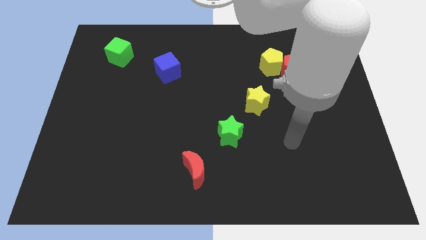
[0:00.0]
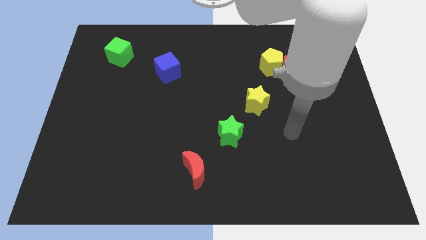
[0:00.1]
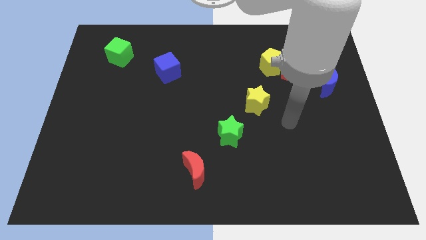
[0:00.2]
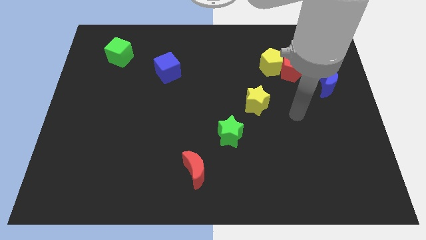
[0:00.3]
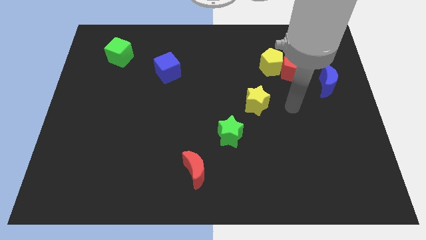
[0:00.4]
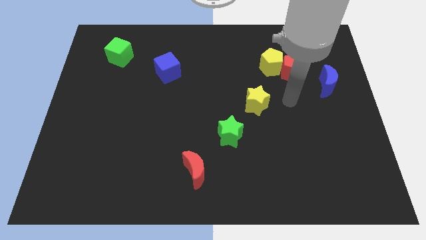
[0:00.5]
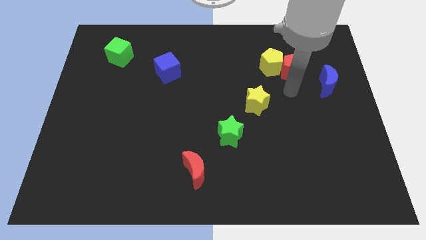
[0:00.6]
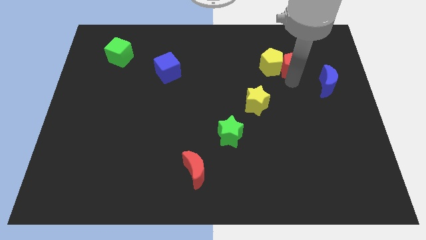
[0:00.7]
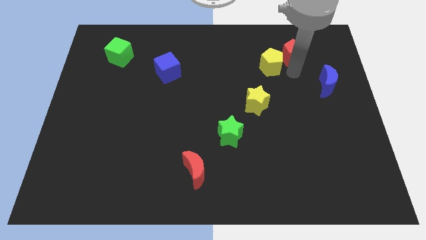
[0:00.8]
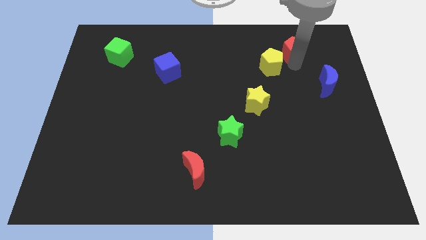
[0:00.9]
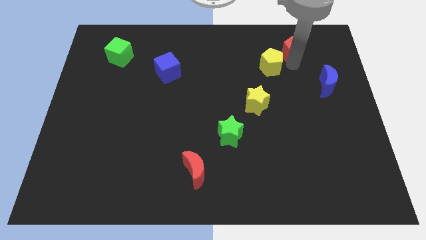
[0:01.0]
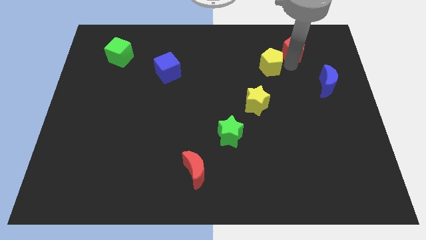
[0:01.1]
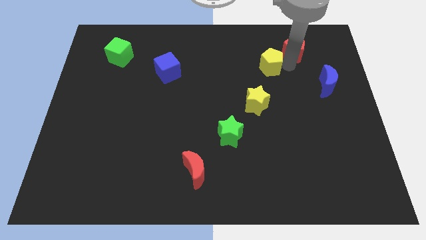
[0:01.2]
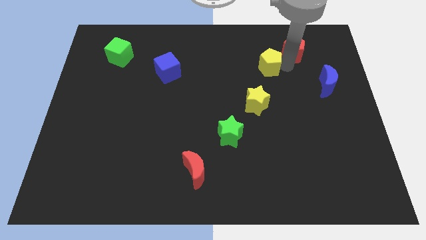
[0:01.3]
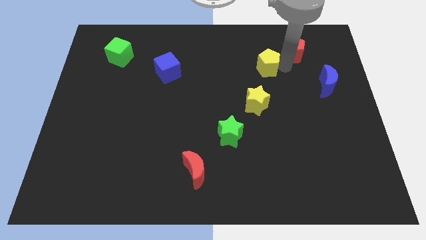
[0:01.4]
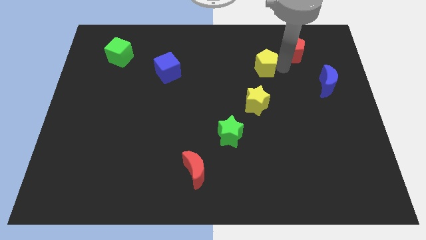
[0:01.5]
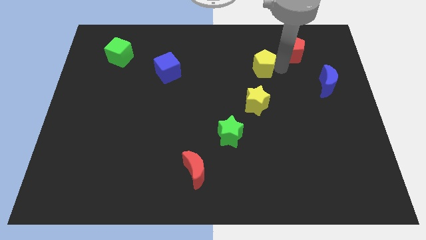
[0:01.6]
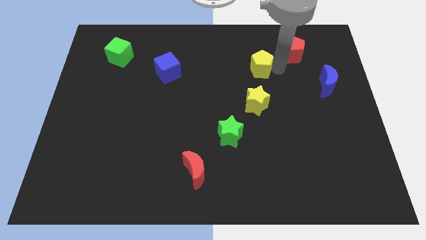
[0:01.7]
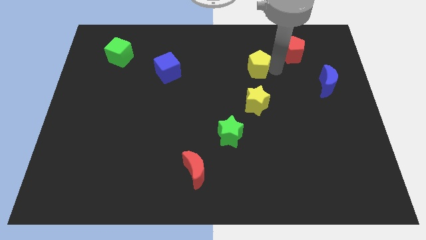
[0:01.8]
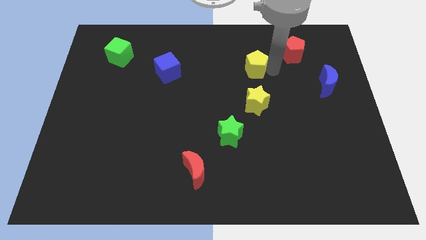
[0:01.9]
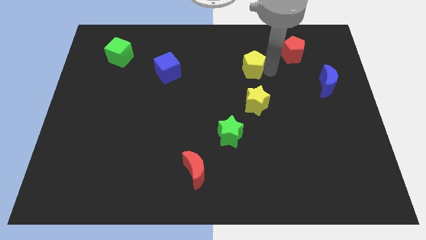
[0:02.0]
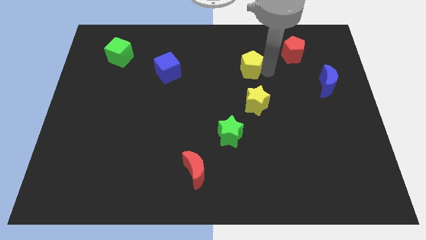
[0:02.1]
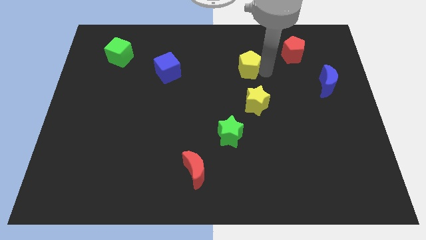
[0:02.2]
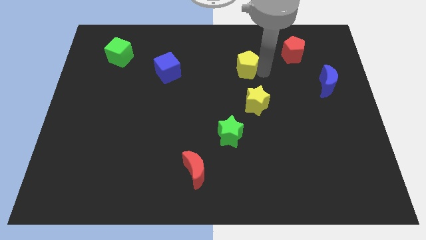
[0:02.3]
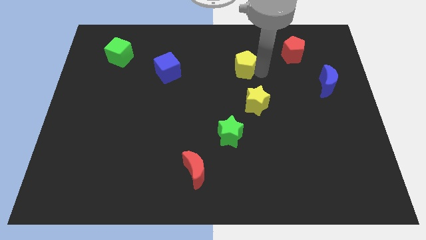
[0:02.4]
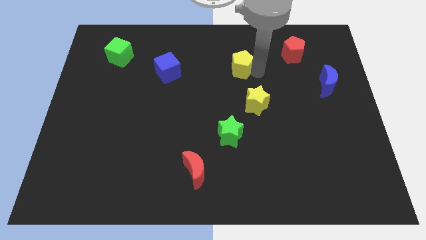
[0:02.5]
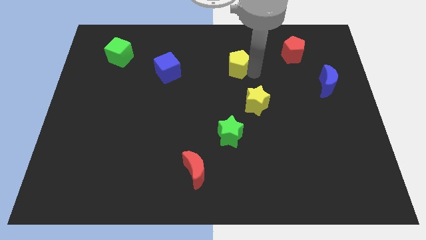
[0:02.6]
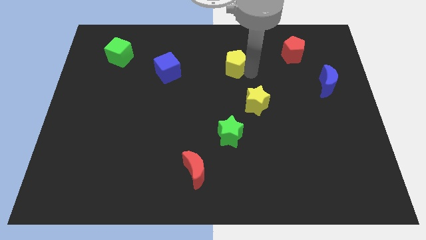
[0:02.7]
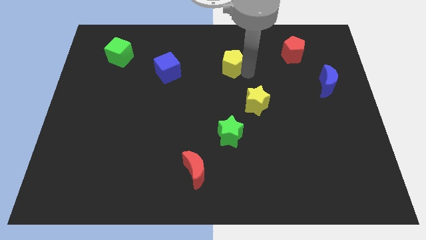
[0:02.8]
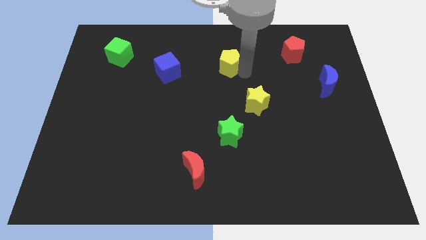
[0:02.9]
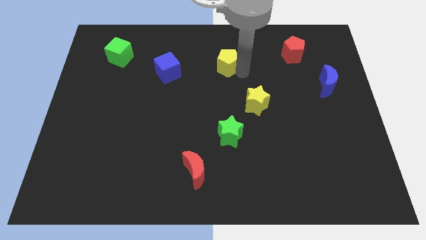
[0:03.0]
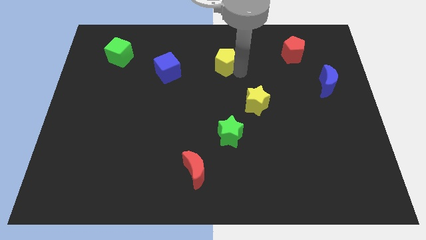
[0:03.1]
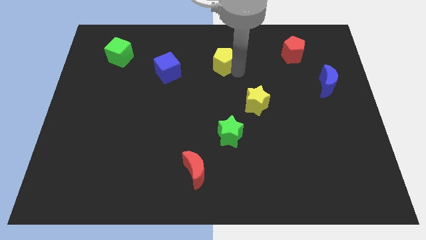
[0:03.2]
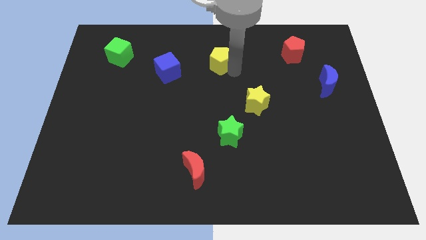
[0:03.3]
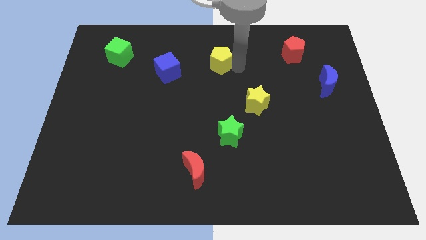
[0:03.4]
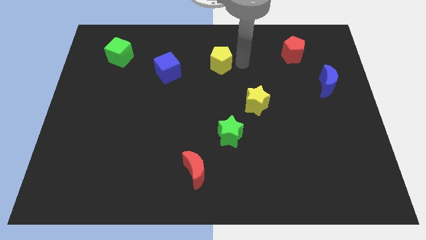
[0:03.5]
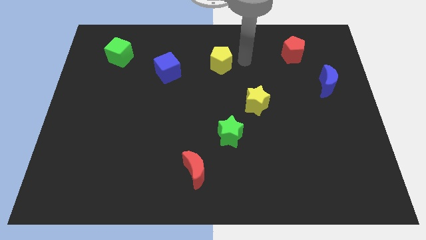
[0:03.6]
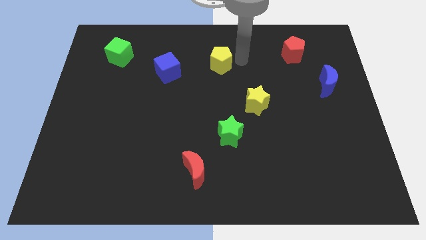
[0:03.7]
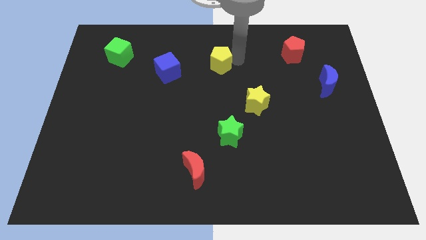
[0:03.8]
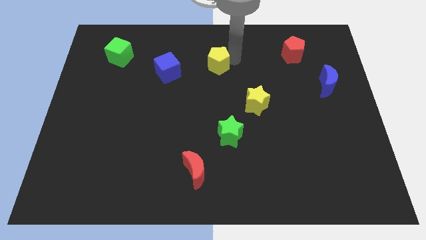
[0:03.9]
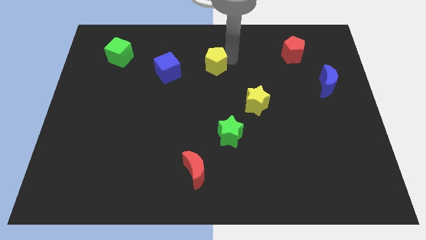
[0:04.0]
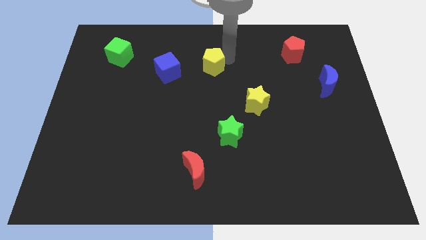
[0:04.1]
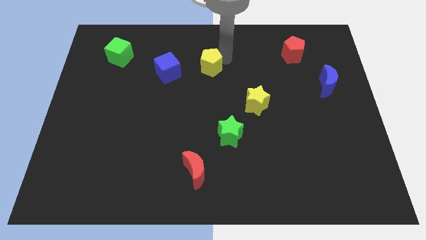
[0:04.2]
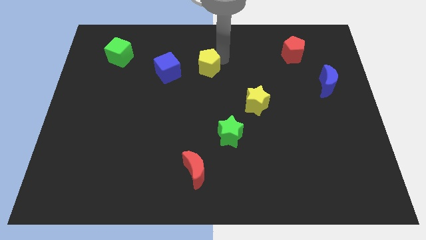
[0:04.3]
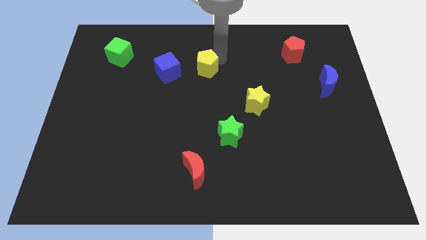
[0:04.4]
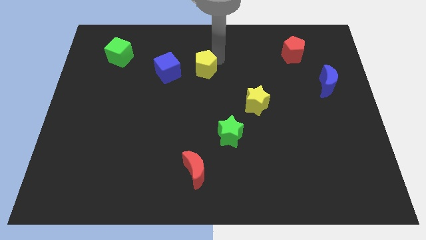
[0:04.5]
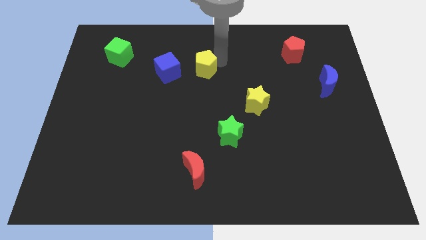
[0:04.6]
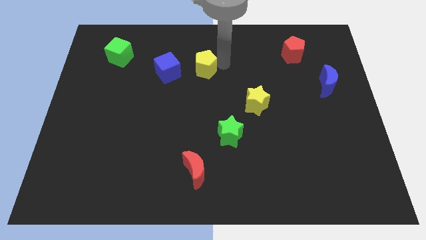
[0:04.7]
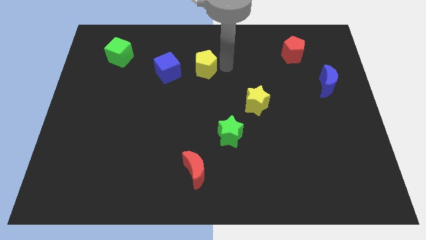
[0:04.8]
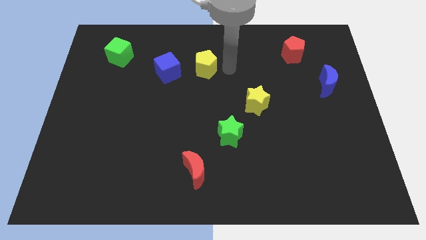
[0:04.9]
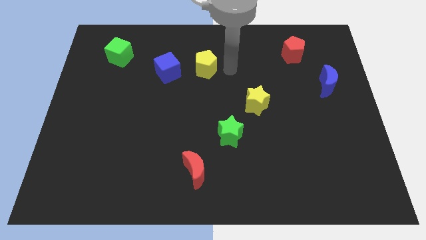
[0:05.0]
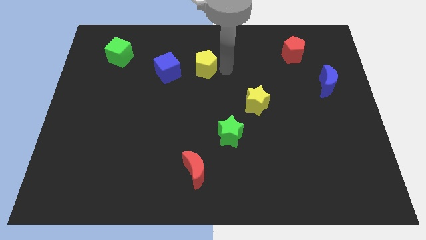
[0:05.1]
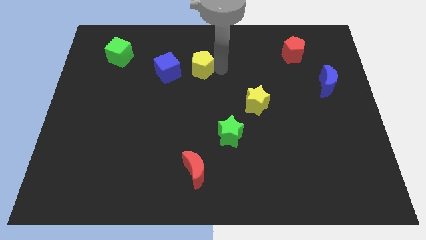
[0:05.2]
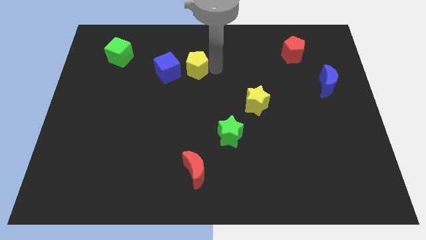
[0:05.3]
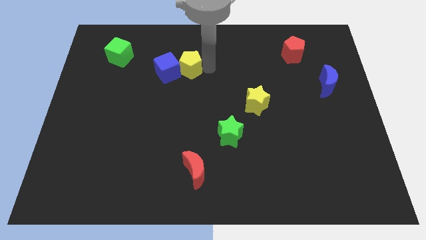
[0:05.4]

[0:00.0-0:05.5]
push the yellow pentagon next to the blue cube
